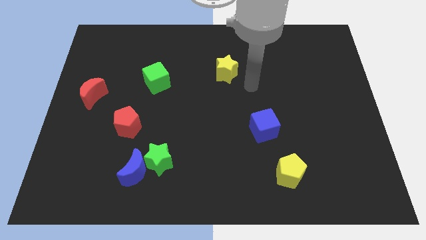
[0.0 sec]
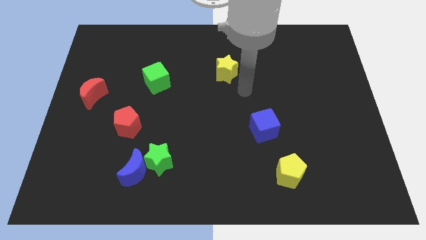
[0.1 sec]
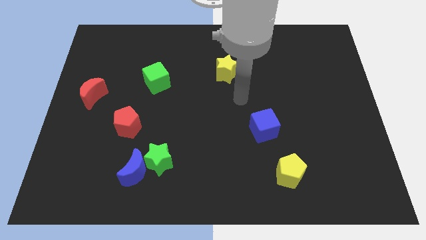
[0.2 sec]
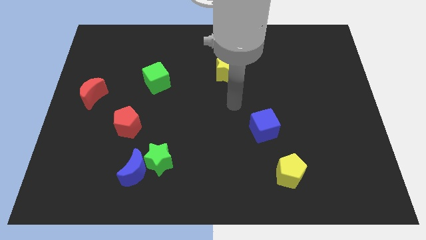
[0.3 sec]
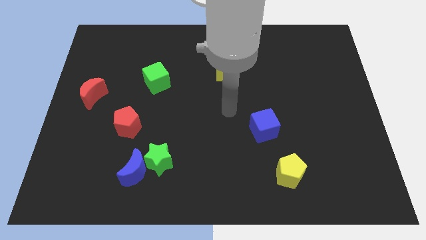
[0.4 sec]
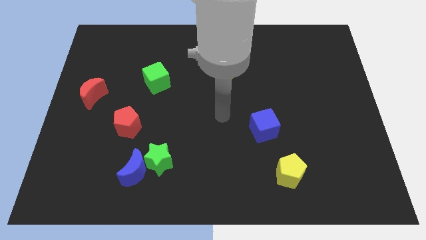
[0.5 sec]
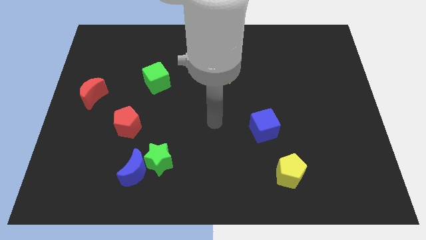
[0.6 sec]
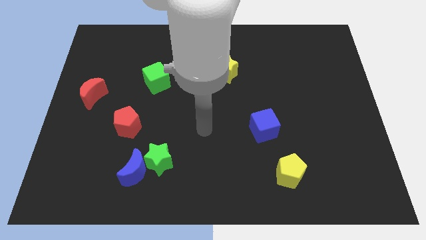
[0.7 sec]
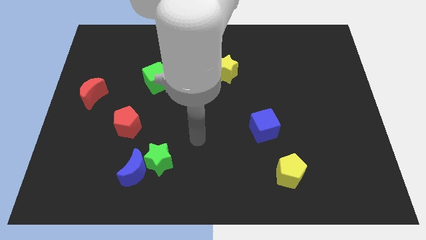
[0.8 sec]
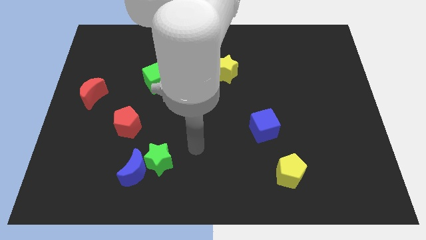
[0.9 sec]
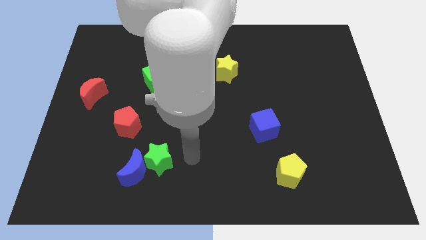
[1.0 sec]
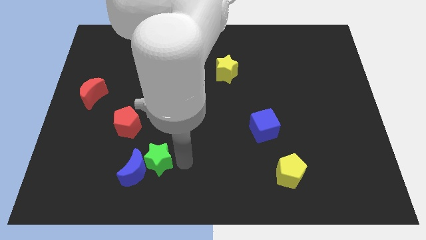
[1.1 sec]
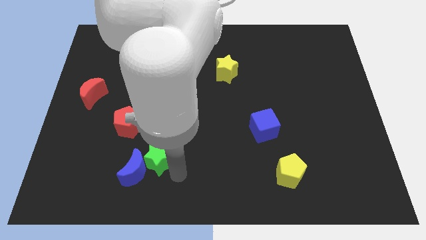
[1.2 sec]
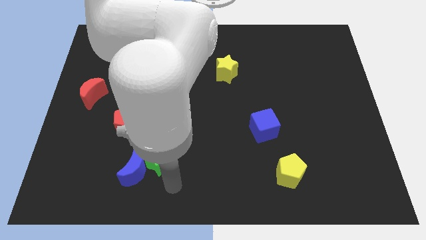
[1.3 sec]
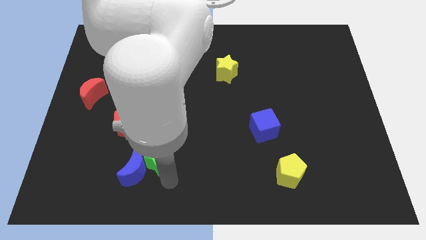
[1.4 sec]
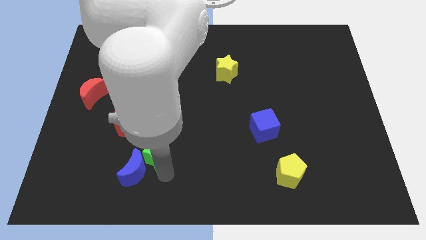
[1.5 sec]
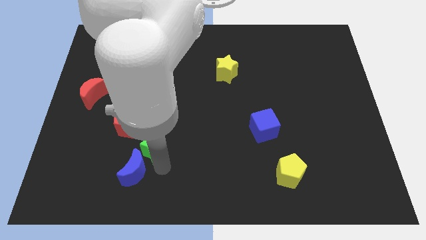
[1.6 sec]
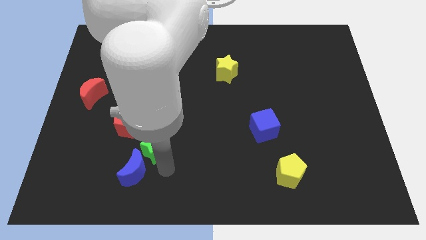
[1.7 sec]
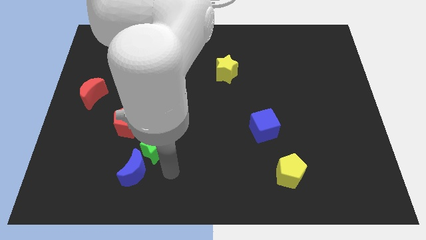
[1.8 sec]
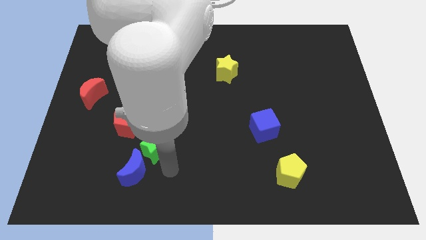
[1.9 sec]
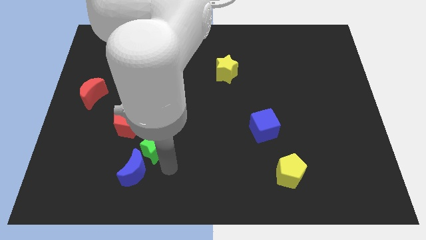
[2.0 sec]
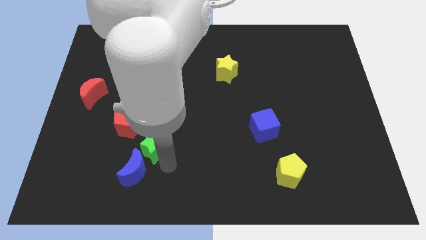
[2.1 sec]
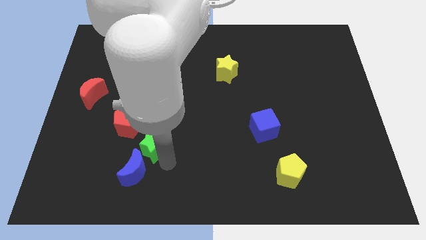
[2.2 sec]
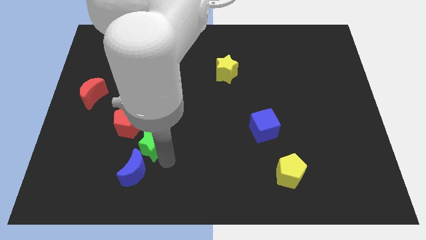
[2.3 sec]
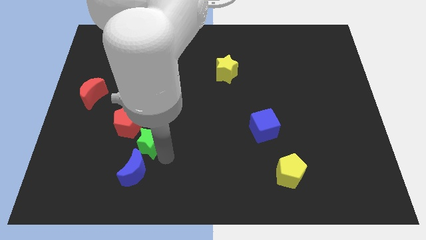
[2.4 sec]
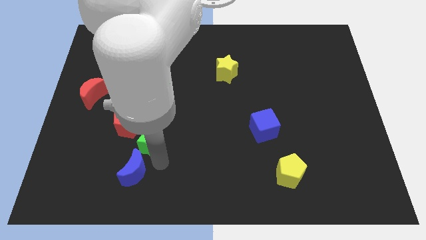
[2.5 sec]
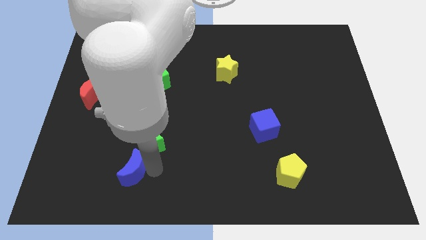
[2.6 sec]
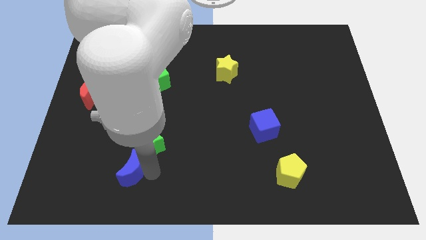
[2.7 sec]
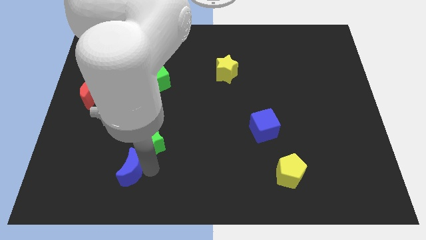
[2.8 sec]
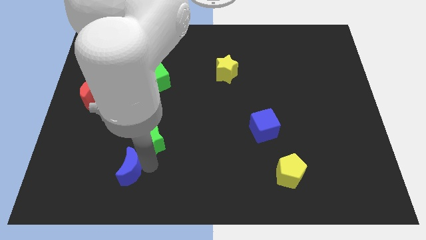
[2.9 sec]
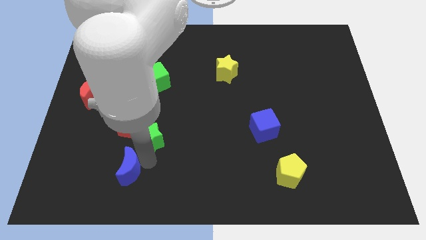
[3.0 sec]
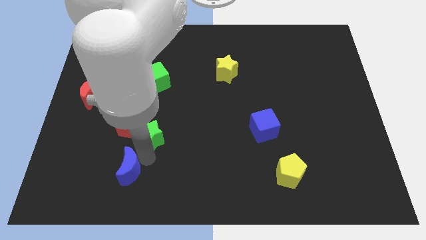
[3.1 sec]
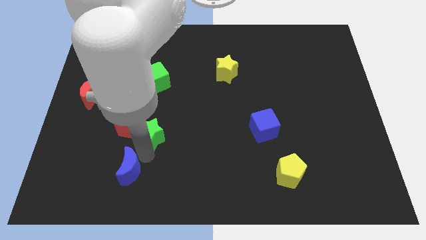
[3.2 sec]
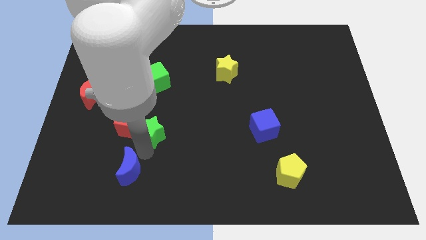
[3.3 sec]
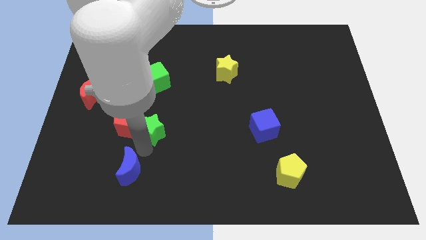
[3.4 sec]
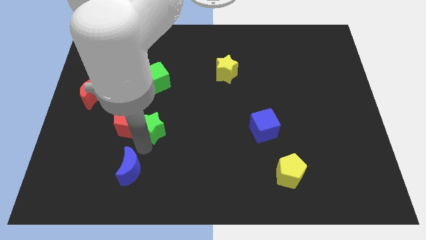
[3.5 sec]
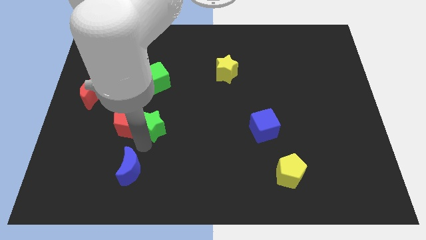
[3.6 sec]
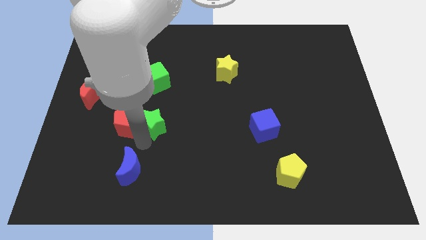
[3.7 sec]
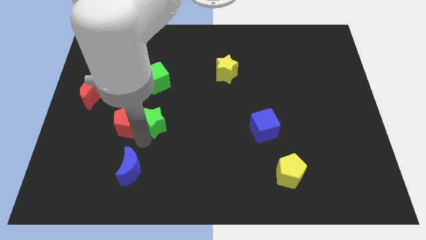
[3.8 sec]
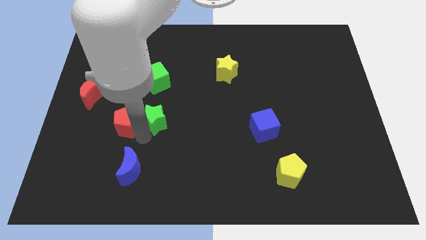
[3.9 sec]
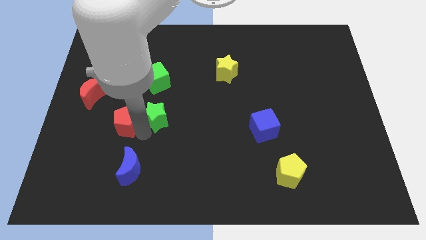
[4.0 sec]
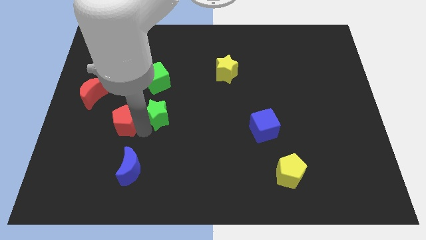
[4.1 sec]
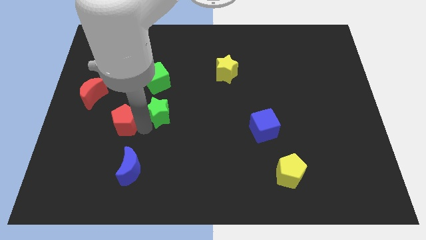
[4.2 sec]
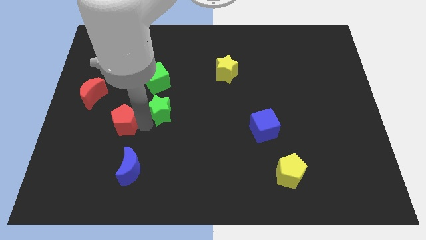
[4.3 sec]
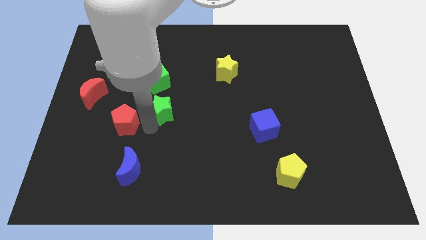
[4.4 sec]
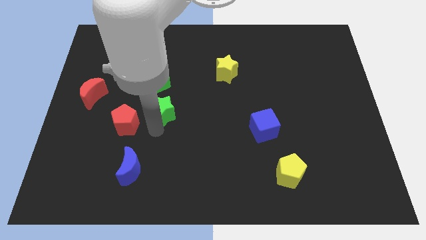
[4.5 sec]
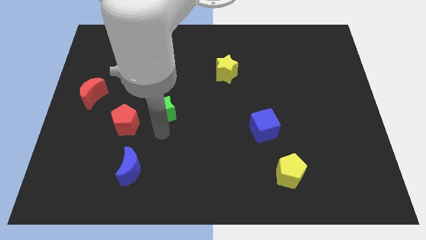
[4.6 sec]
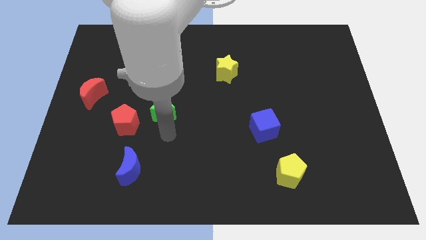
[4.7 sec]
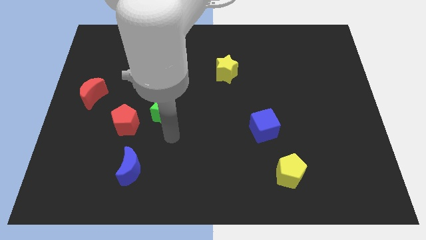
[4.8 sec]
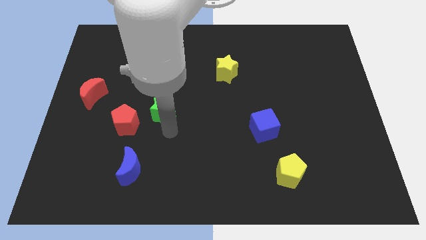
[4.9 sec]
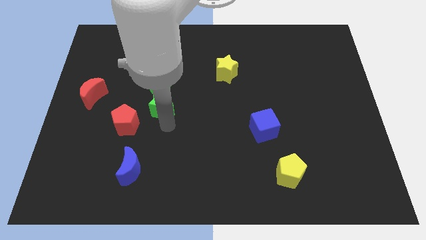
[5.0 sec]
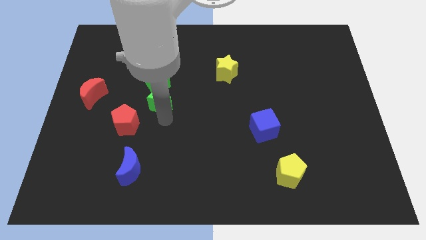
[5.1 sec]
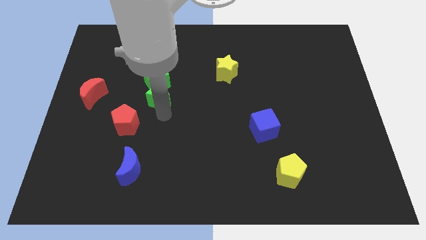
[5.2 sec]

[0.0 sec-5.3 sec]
put the green star next to the green cube

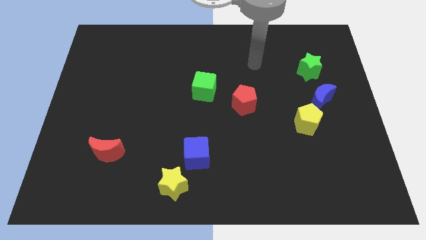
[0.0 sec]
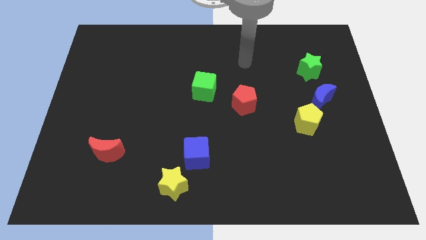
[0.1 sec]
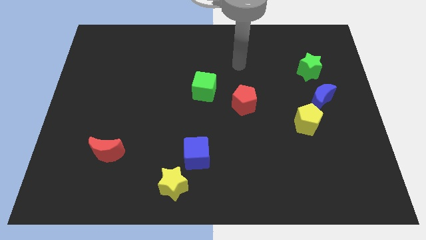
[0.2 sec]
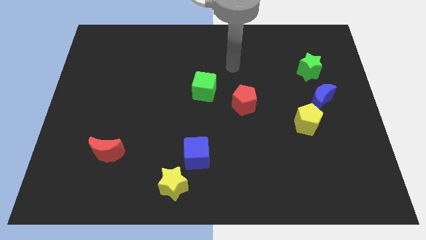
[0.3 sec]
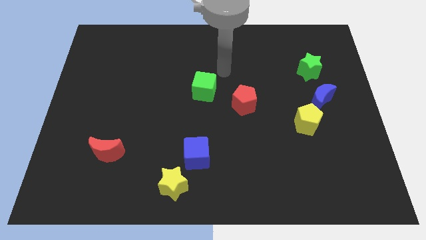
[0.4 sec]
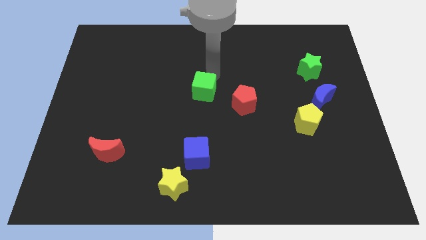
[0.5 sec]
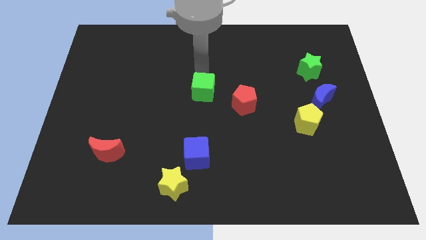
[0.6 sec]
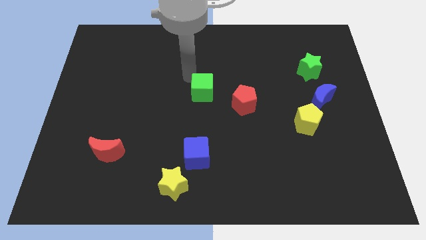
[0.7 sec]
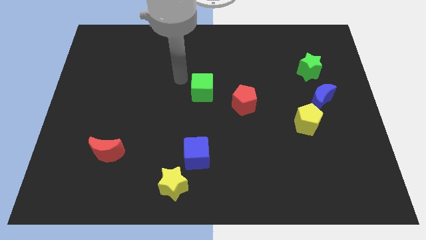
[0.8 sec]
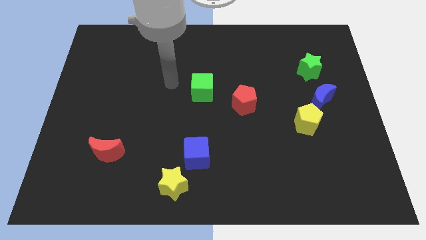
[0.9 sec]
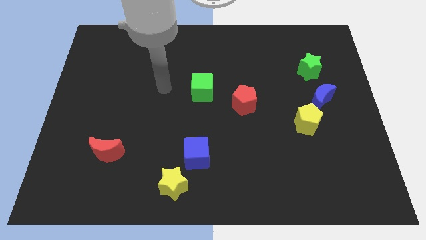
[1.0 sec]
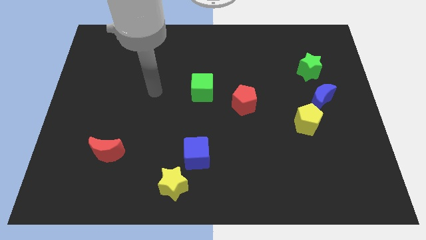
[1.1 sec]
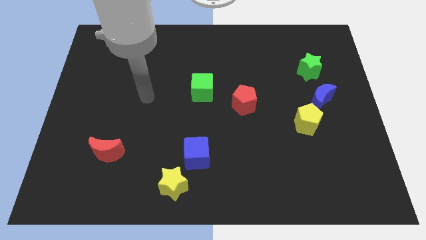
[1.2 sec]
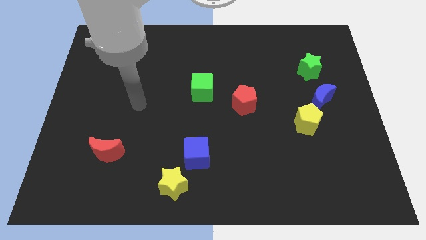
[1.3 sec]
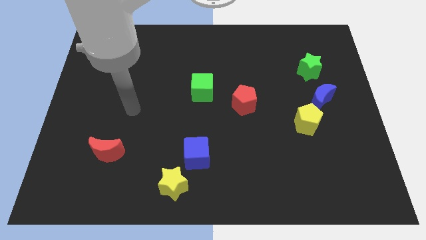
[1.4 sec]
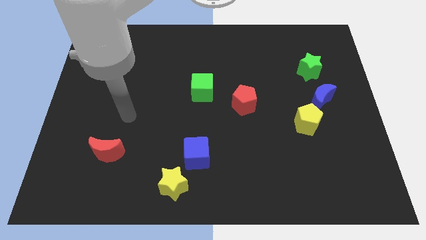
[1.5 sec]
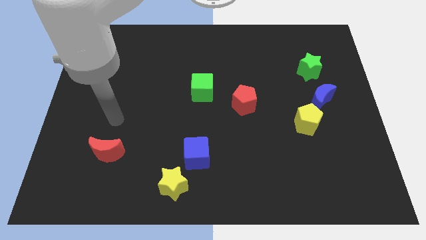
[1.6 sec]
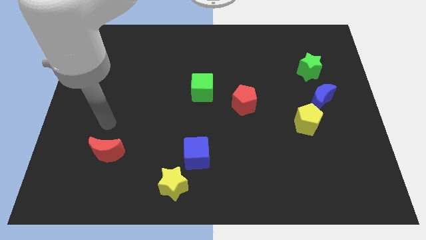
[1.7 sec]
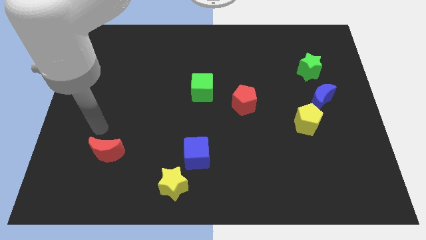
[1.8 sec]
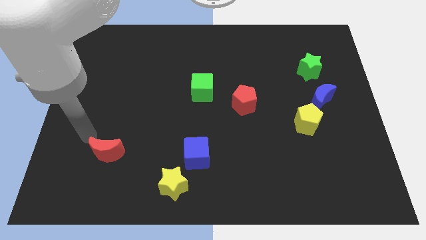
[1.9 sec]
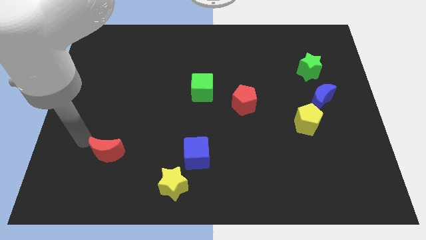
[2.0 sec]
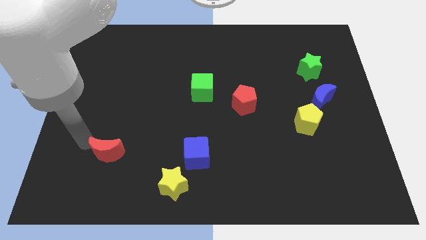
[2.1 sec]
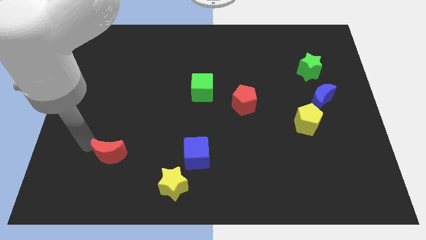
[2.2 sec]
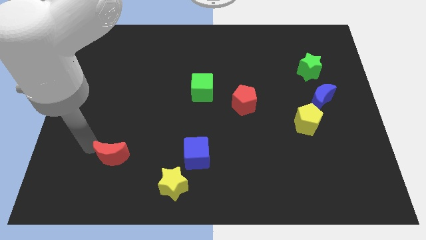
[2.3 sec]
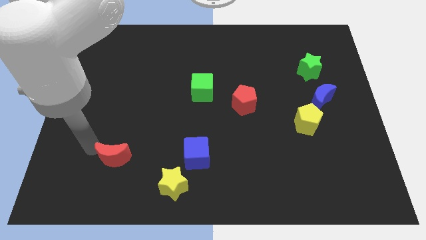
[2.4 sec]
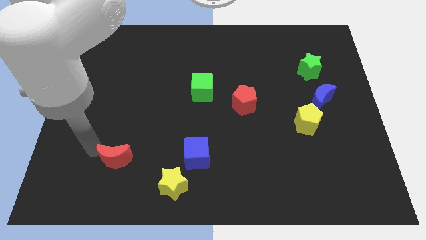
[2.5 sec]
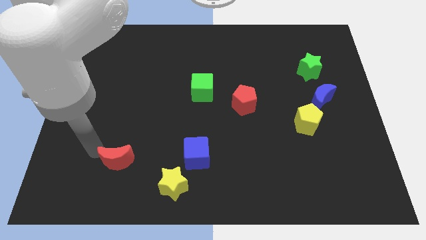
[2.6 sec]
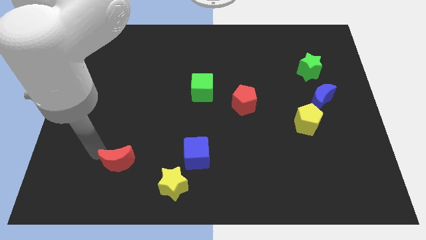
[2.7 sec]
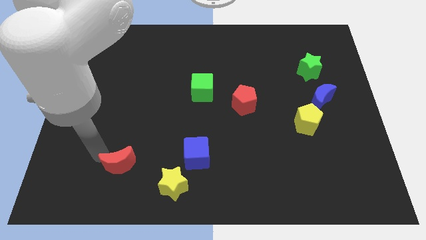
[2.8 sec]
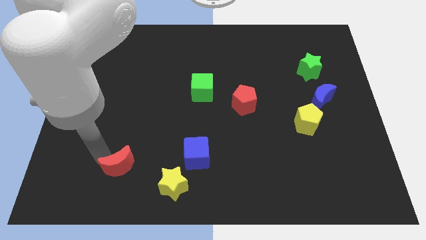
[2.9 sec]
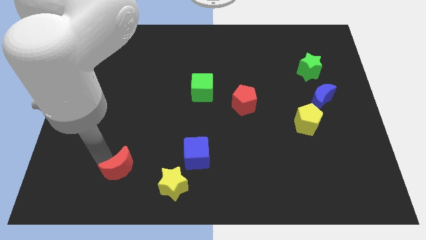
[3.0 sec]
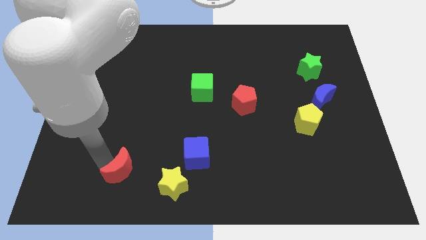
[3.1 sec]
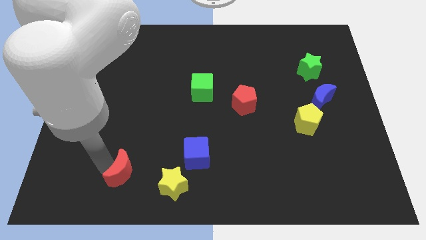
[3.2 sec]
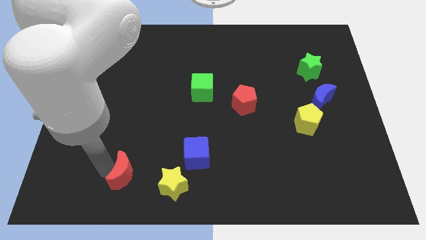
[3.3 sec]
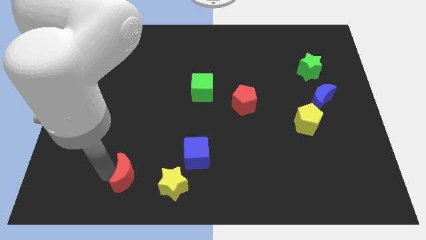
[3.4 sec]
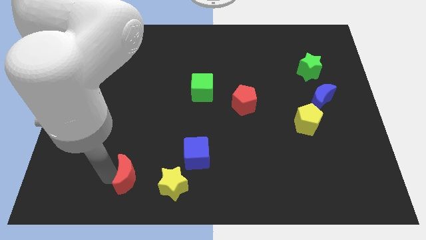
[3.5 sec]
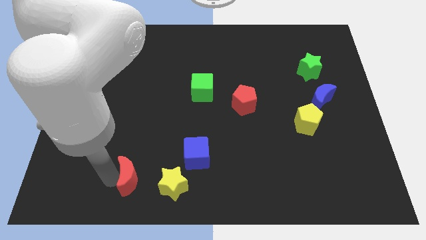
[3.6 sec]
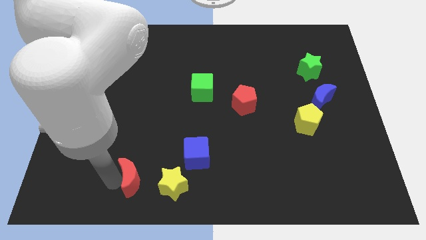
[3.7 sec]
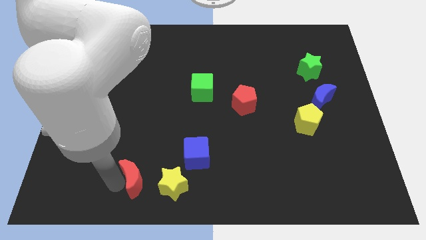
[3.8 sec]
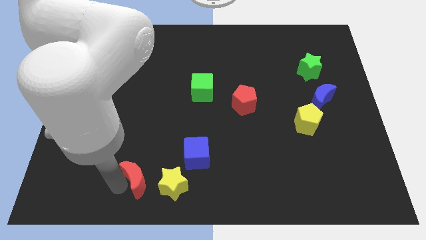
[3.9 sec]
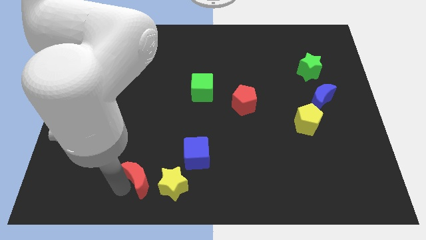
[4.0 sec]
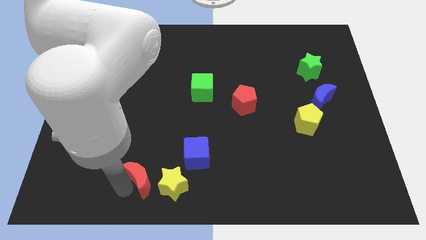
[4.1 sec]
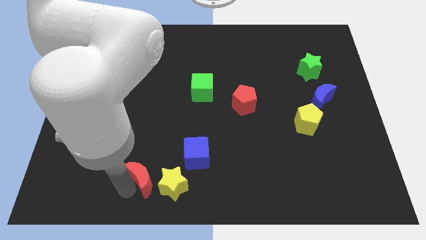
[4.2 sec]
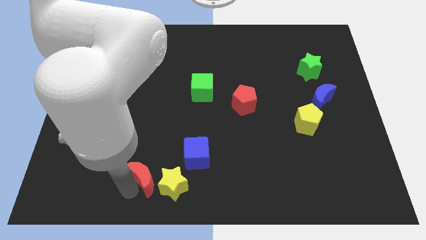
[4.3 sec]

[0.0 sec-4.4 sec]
move the red moon to the yellow star
